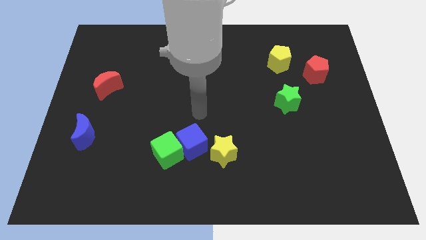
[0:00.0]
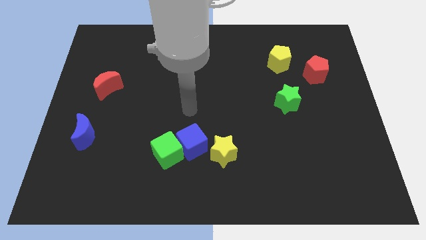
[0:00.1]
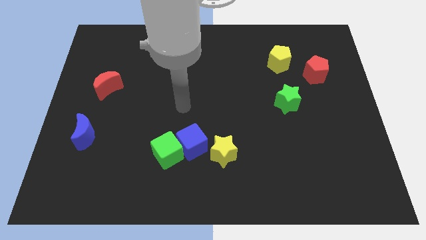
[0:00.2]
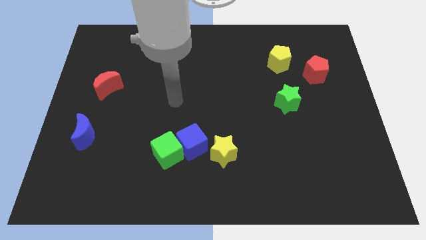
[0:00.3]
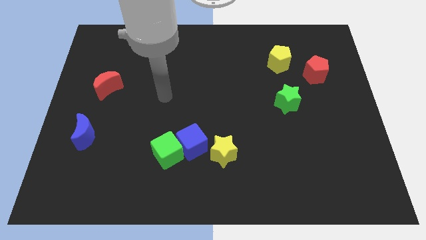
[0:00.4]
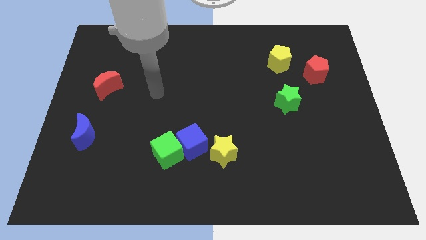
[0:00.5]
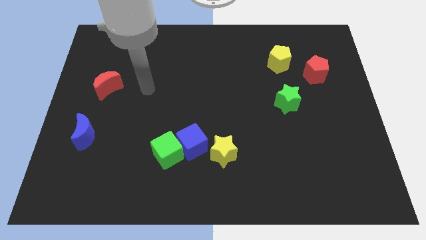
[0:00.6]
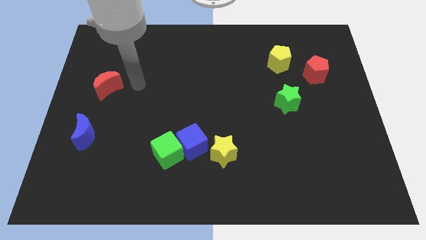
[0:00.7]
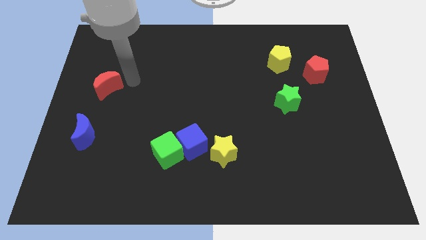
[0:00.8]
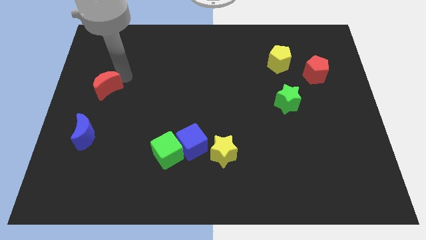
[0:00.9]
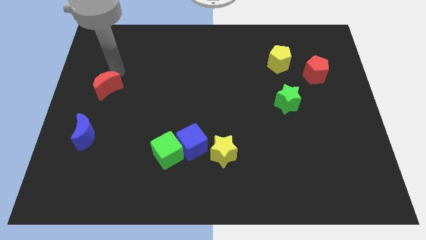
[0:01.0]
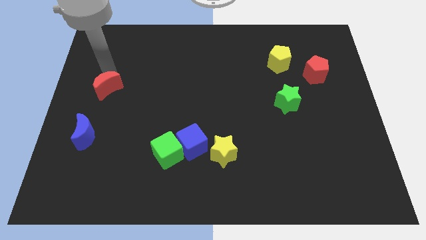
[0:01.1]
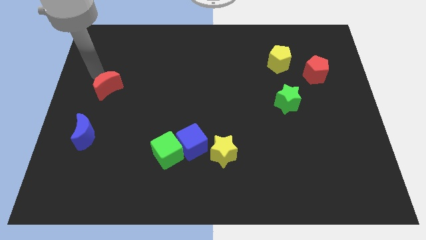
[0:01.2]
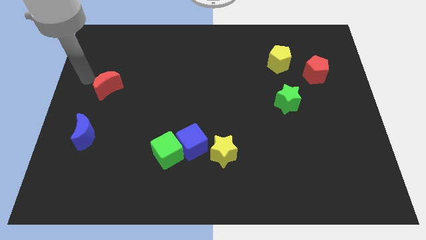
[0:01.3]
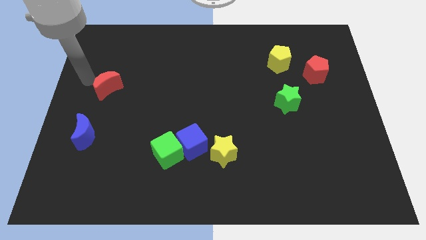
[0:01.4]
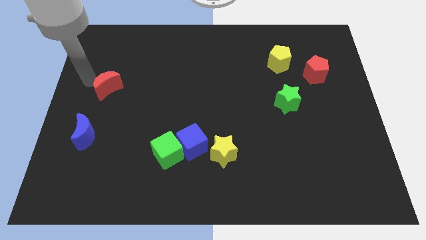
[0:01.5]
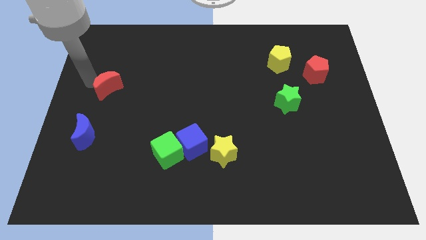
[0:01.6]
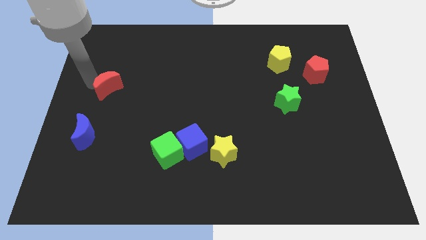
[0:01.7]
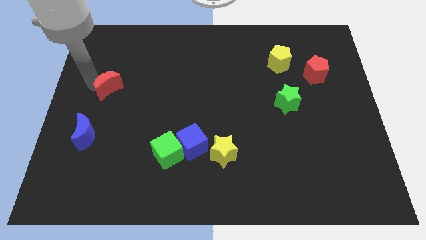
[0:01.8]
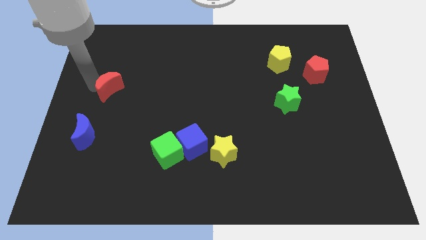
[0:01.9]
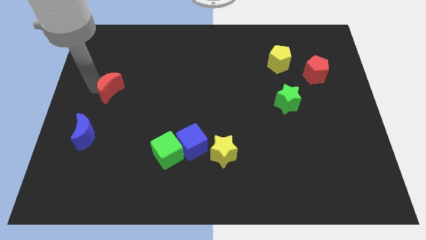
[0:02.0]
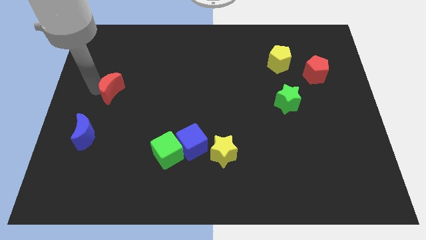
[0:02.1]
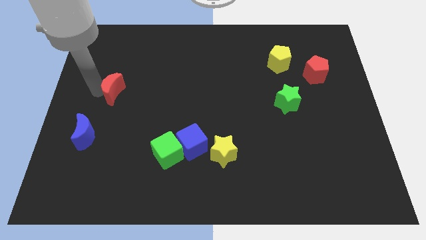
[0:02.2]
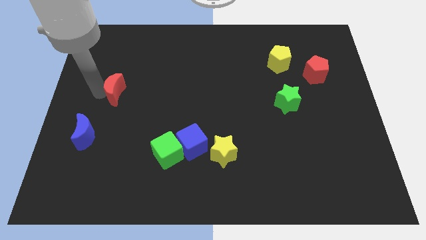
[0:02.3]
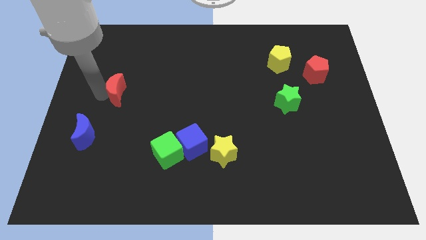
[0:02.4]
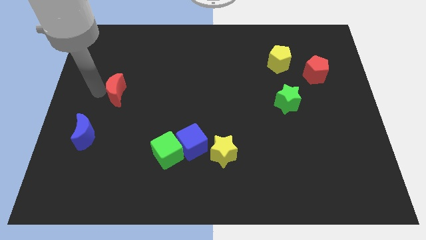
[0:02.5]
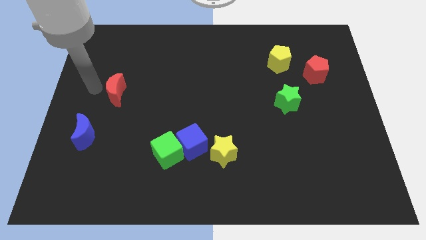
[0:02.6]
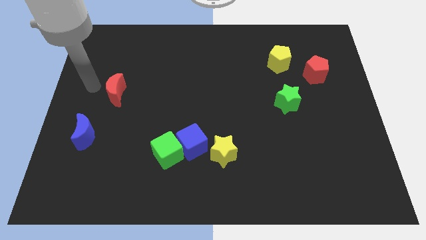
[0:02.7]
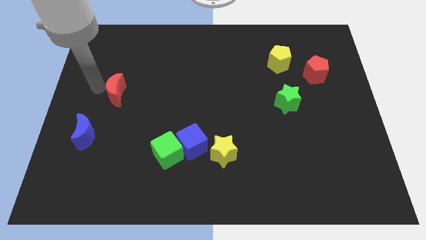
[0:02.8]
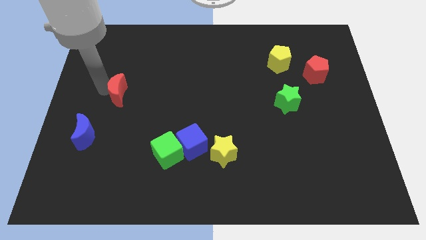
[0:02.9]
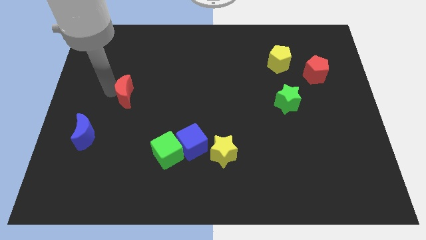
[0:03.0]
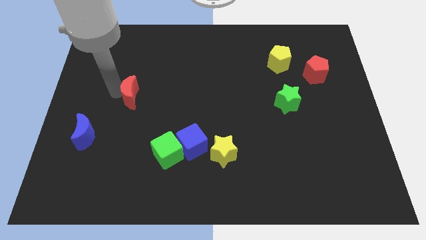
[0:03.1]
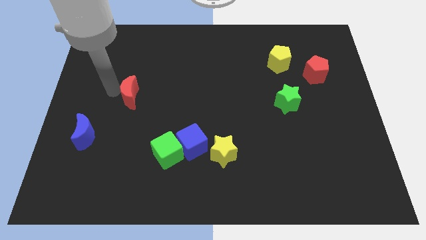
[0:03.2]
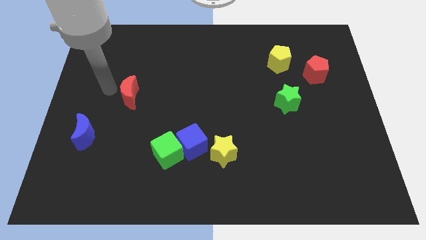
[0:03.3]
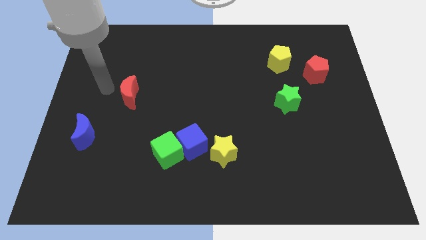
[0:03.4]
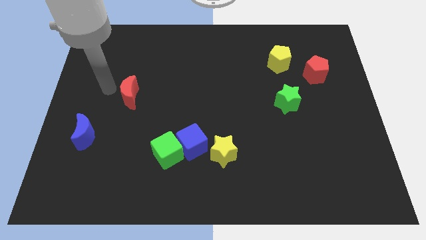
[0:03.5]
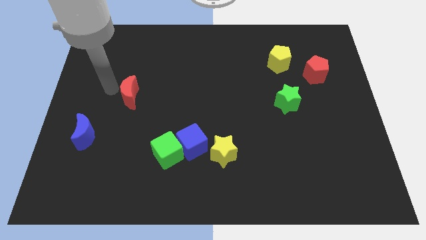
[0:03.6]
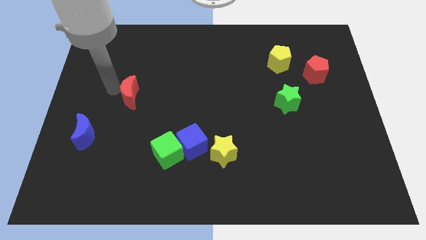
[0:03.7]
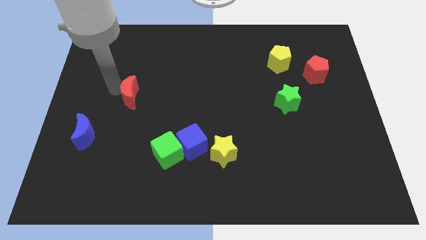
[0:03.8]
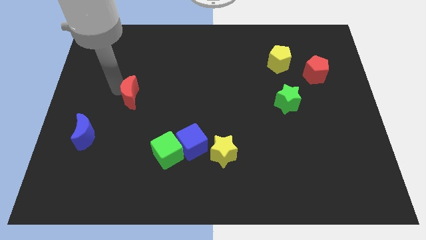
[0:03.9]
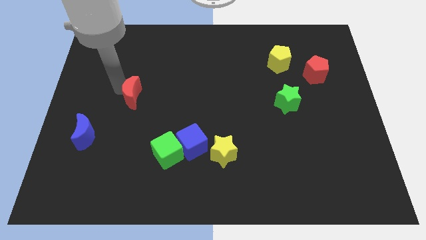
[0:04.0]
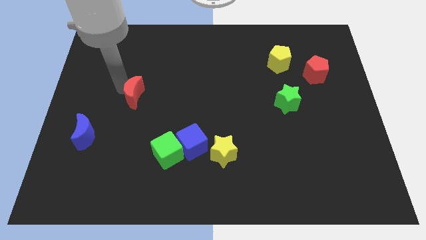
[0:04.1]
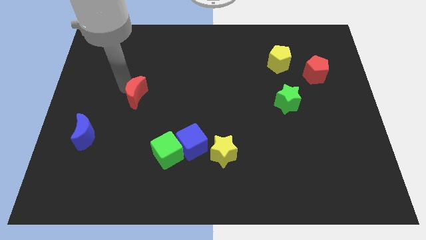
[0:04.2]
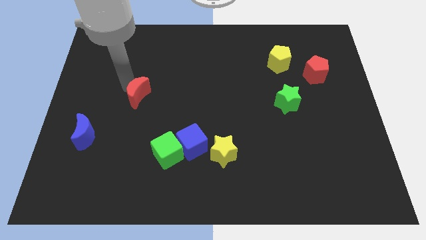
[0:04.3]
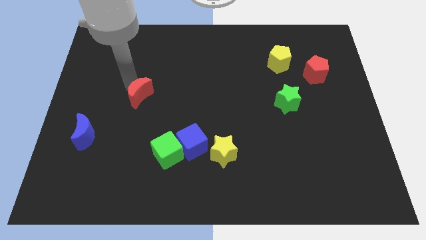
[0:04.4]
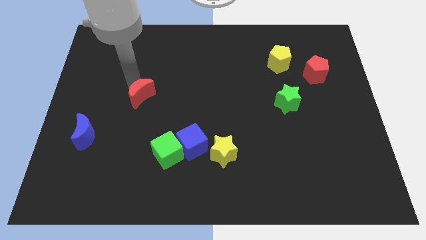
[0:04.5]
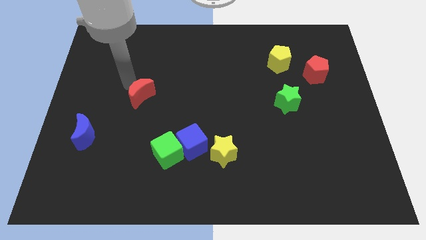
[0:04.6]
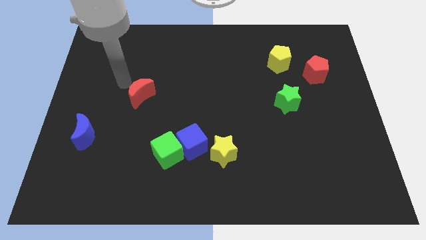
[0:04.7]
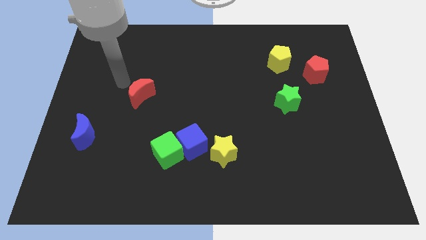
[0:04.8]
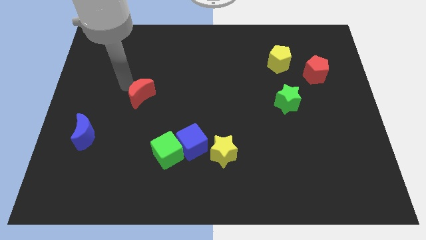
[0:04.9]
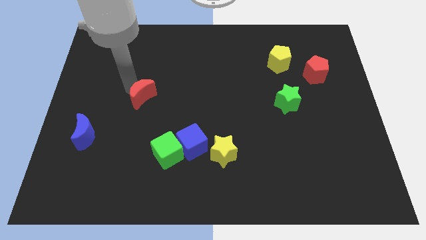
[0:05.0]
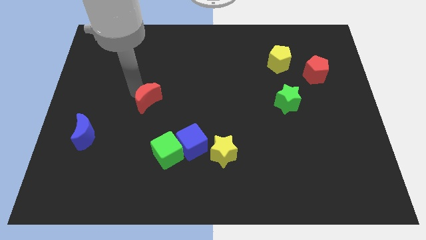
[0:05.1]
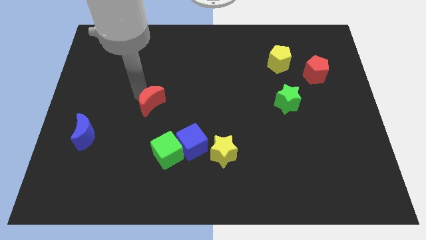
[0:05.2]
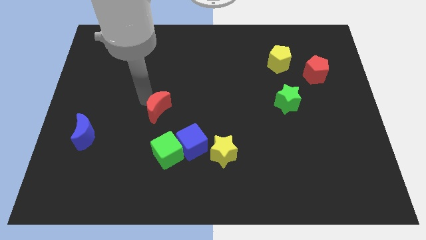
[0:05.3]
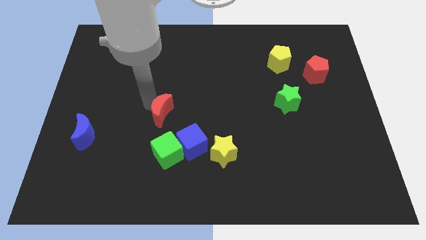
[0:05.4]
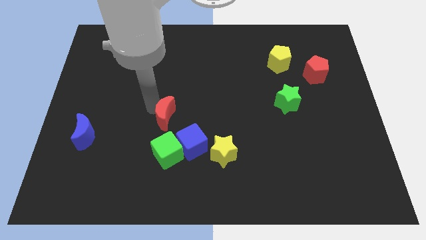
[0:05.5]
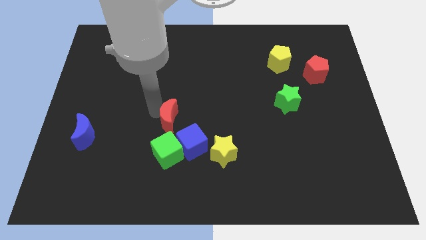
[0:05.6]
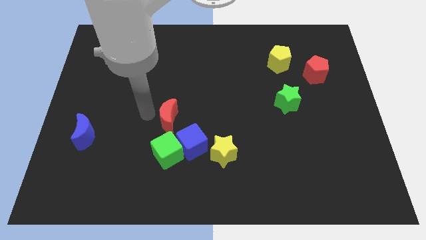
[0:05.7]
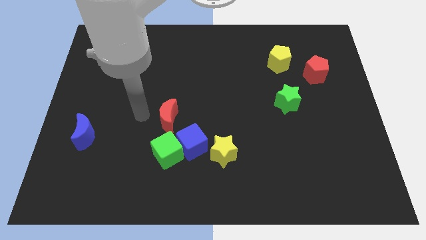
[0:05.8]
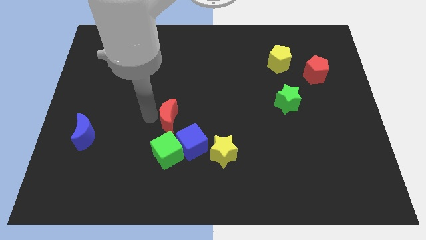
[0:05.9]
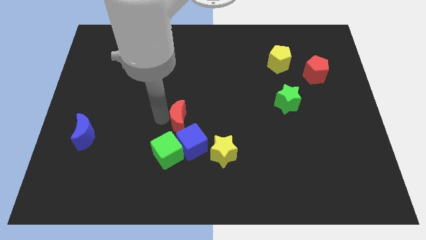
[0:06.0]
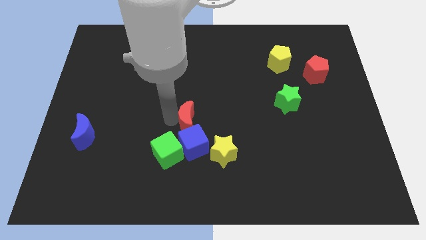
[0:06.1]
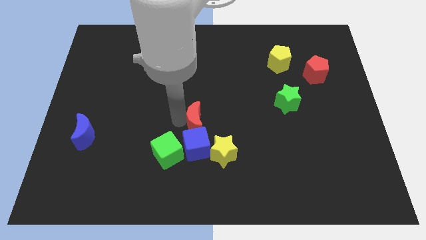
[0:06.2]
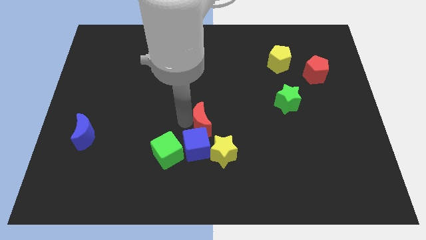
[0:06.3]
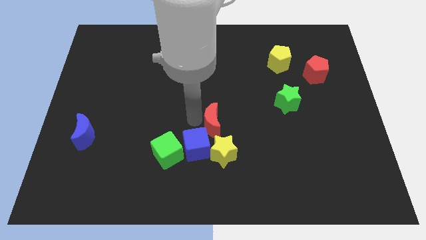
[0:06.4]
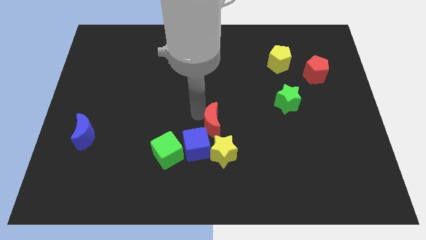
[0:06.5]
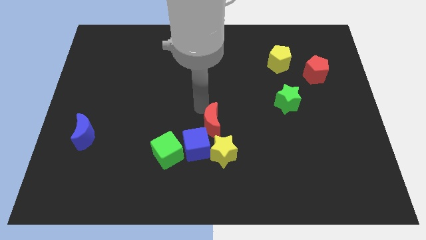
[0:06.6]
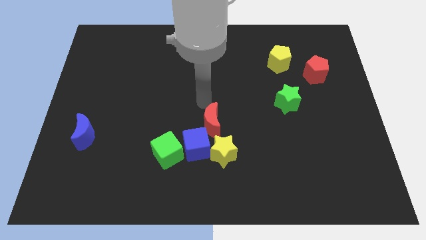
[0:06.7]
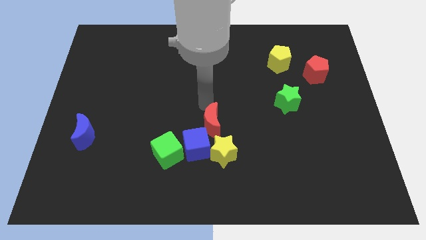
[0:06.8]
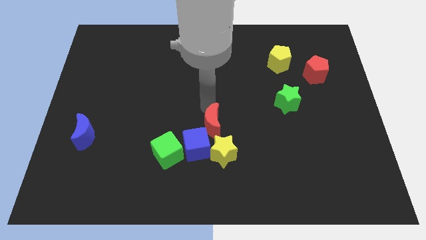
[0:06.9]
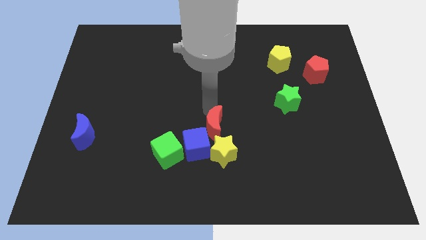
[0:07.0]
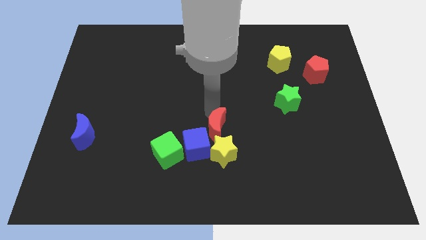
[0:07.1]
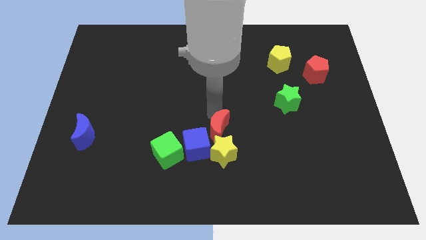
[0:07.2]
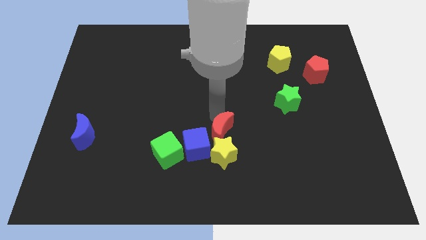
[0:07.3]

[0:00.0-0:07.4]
slide the red moon next to the yellow star
